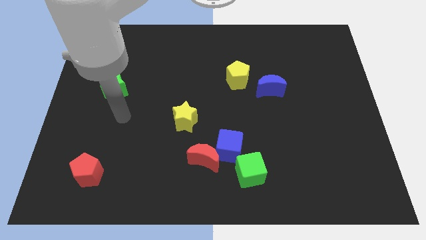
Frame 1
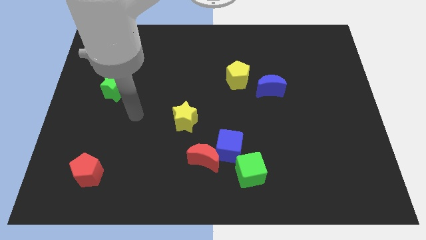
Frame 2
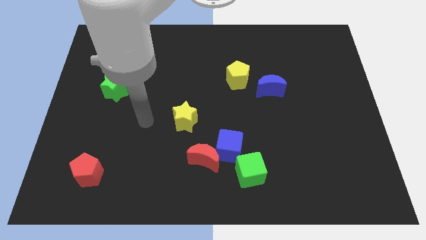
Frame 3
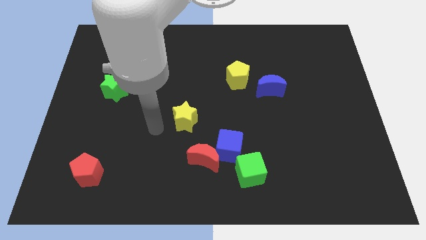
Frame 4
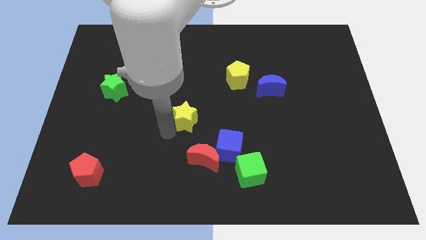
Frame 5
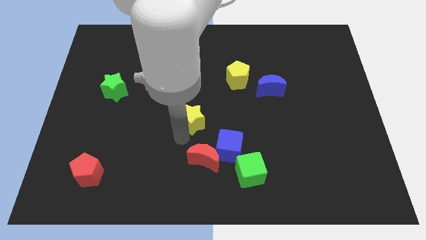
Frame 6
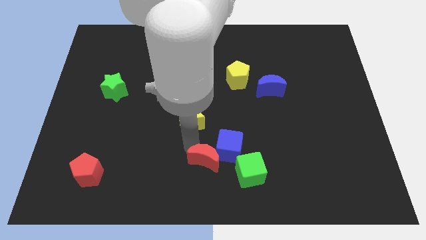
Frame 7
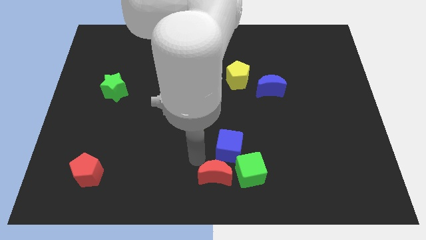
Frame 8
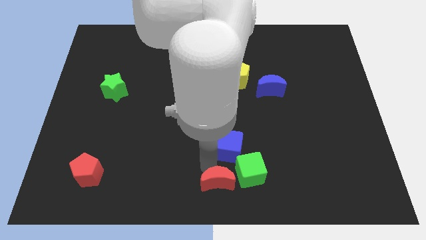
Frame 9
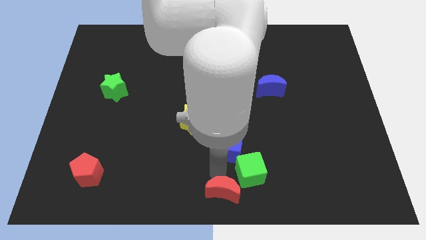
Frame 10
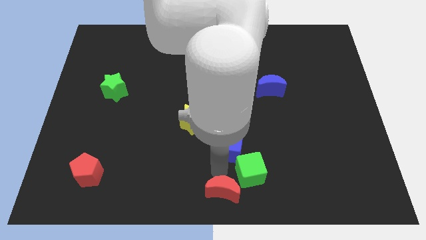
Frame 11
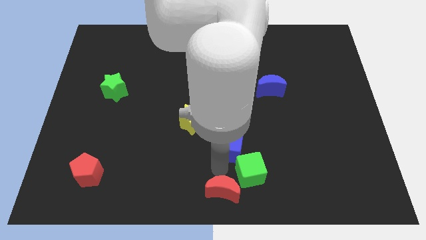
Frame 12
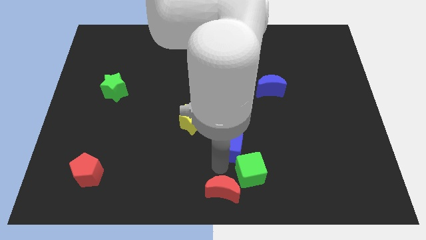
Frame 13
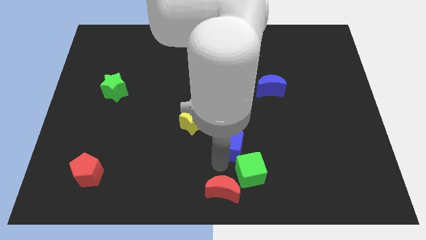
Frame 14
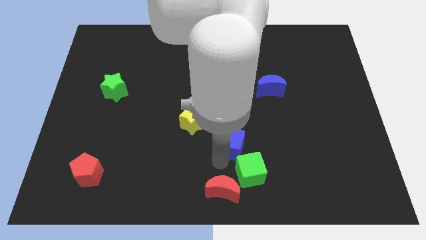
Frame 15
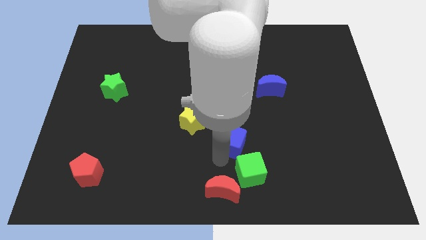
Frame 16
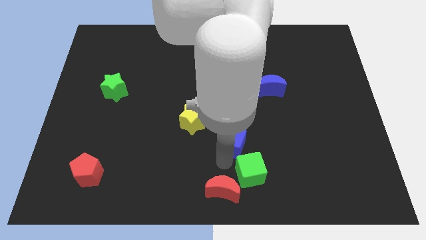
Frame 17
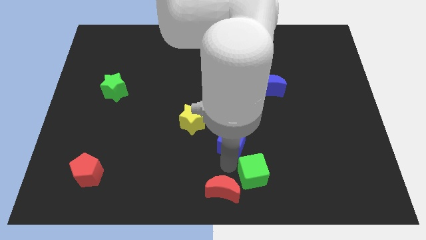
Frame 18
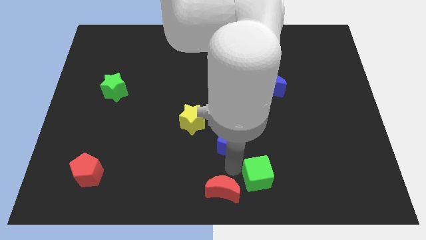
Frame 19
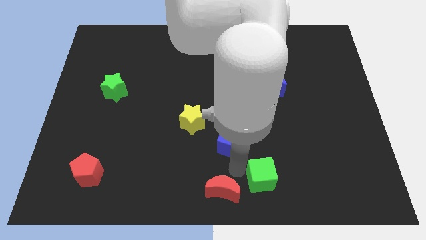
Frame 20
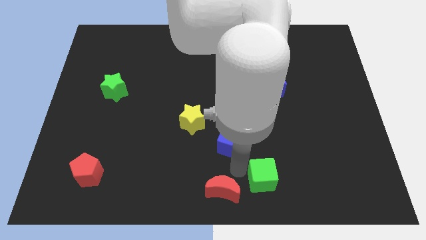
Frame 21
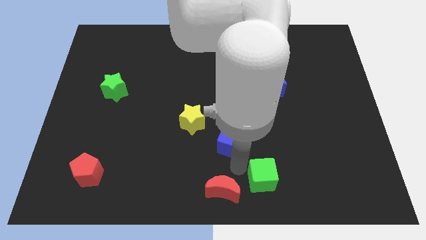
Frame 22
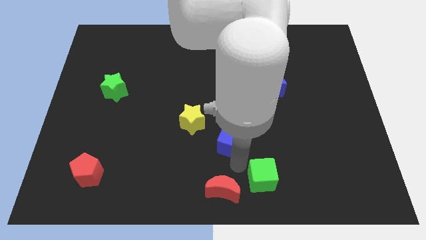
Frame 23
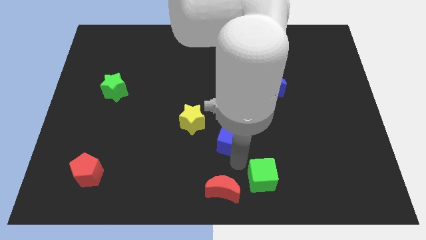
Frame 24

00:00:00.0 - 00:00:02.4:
move the blue cube away from the red moon and green cube

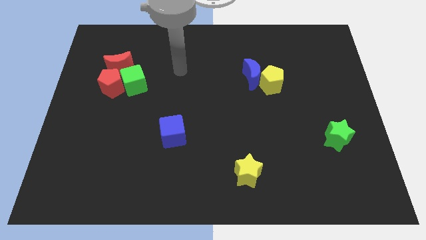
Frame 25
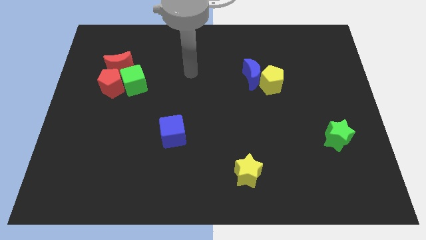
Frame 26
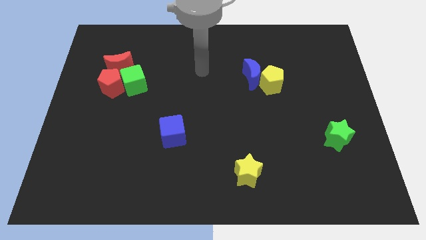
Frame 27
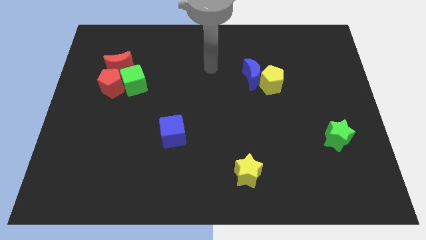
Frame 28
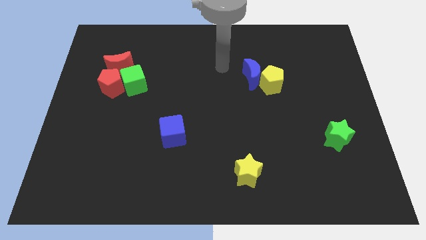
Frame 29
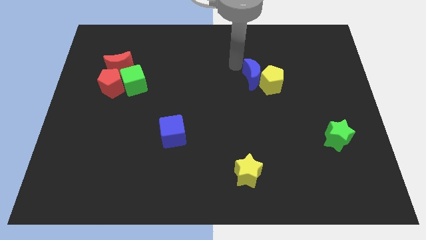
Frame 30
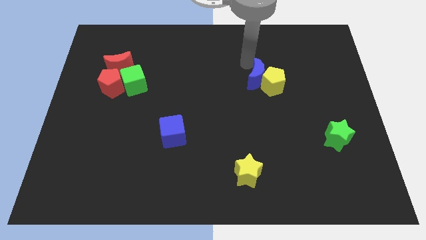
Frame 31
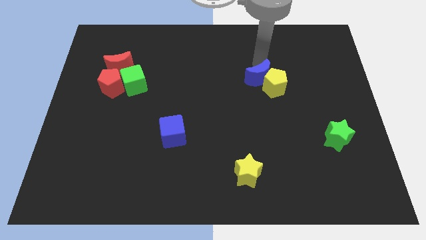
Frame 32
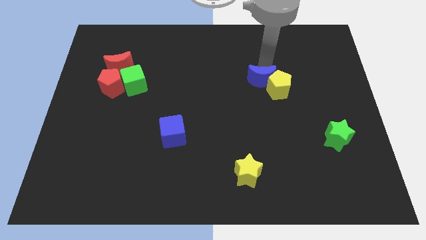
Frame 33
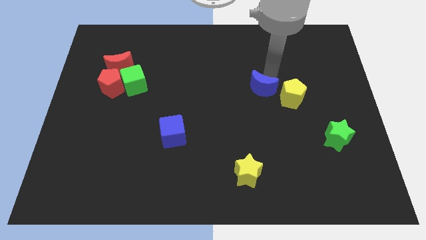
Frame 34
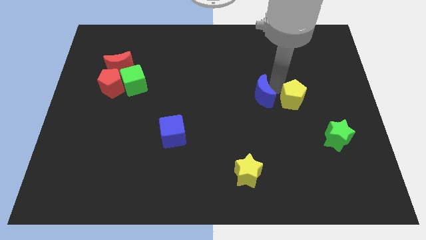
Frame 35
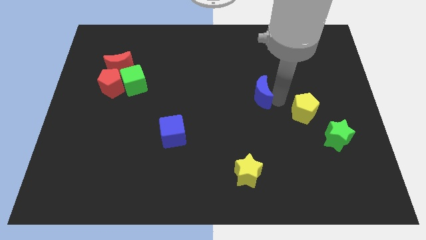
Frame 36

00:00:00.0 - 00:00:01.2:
separate the blue moon from the yellow pentagon

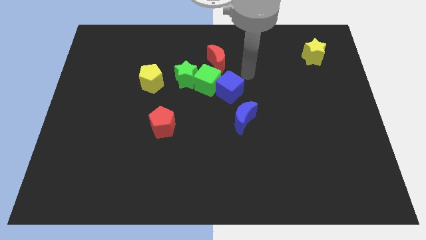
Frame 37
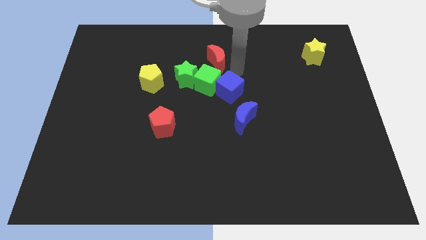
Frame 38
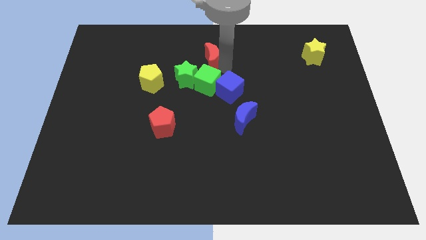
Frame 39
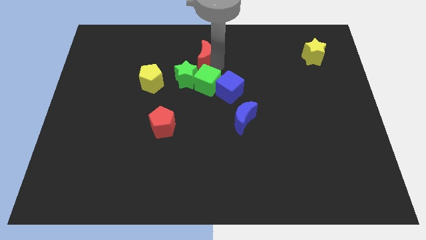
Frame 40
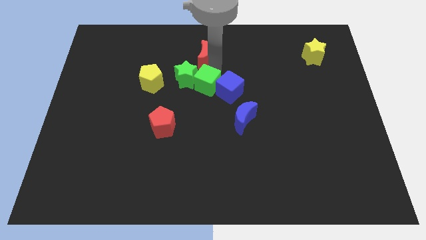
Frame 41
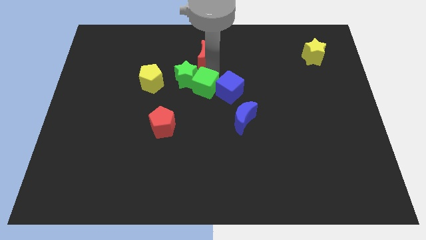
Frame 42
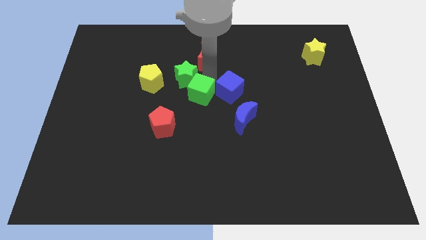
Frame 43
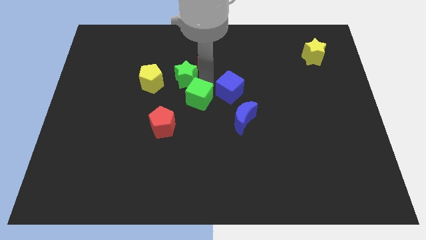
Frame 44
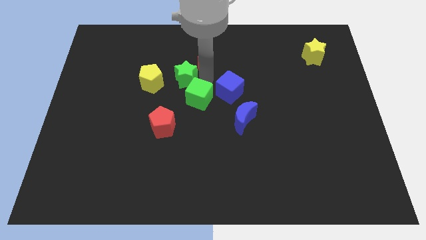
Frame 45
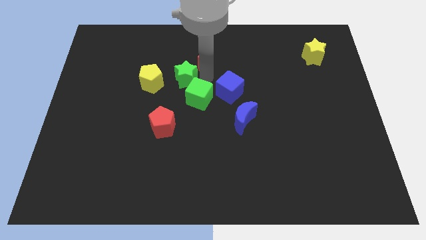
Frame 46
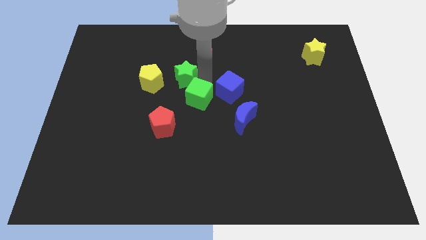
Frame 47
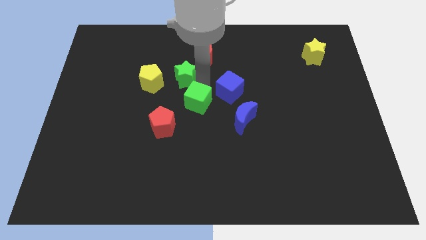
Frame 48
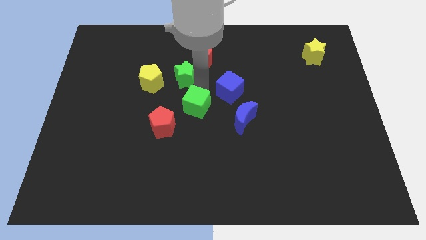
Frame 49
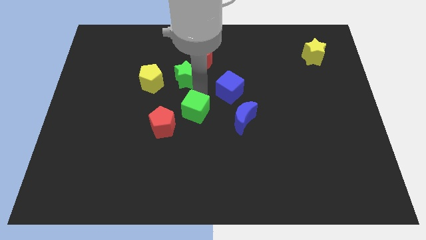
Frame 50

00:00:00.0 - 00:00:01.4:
separate the green cube from the clump

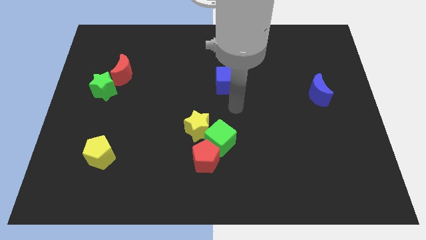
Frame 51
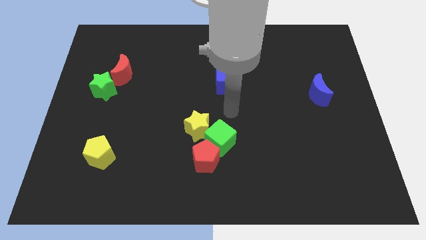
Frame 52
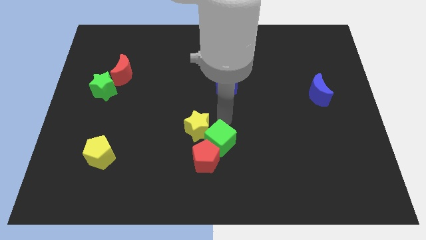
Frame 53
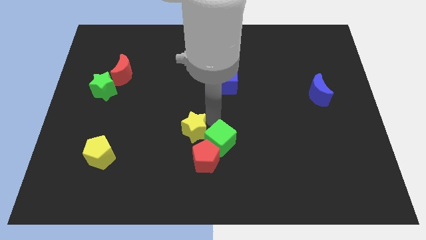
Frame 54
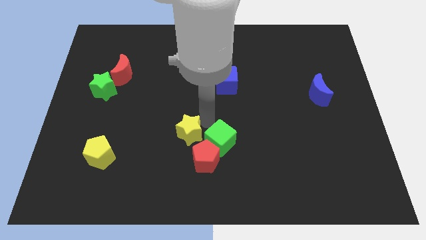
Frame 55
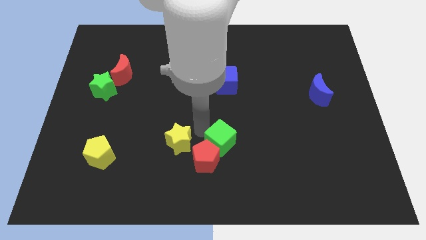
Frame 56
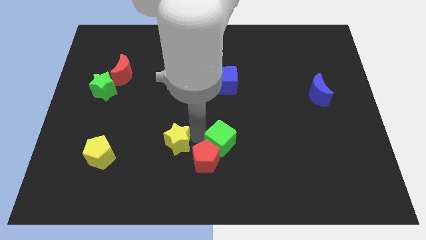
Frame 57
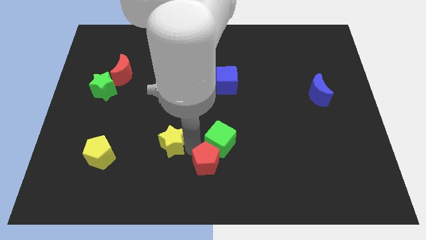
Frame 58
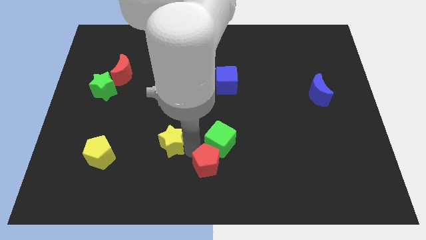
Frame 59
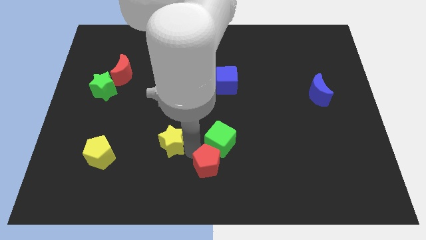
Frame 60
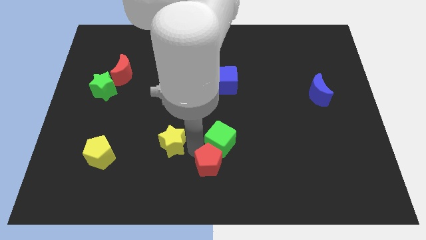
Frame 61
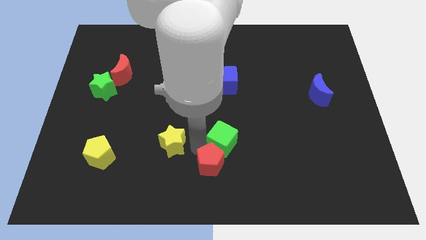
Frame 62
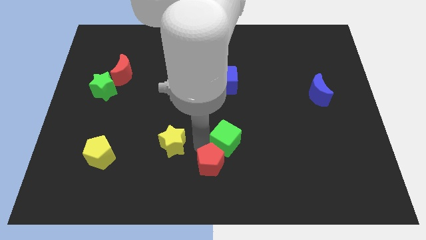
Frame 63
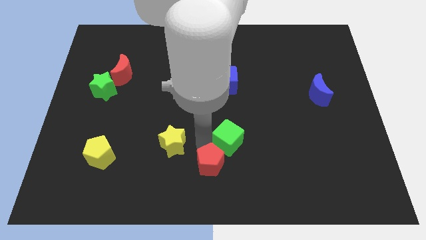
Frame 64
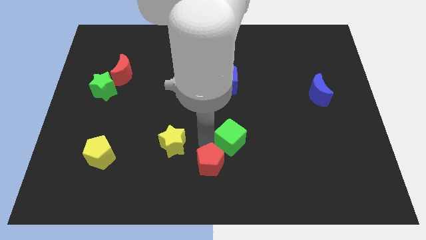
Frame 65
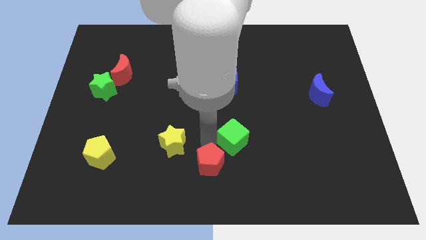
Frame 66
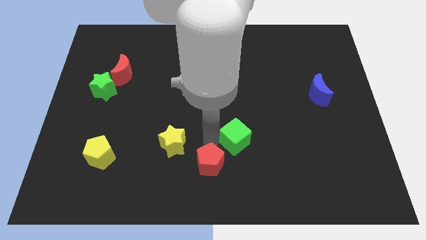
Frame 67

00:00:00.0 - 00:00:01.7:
move the green cube away from the red pentagon and yellow star

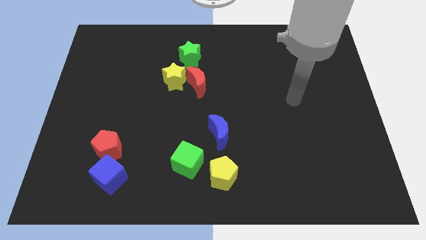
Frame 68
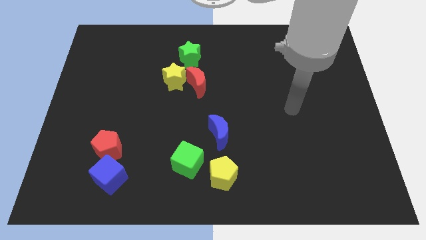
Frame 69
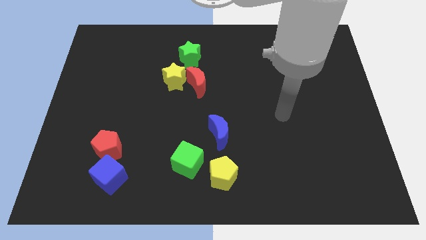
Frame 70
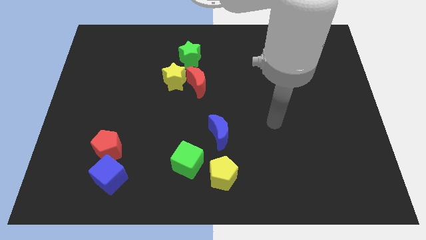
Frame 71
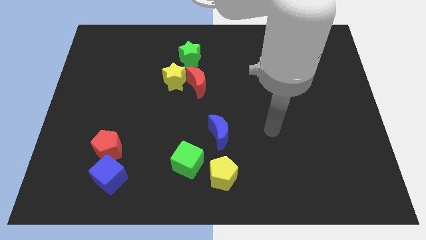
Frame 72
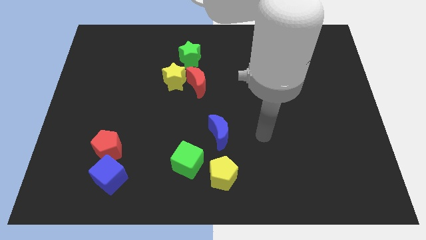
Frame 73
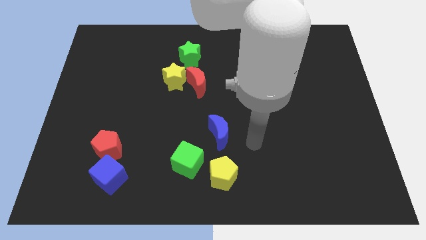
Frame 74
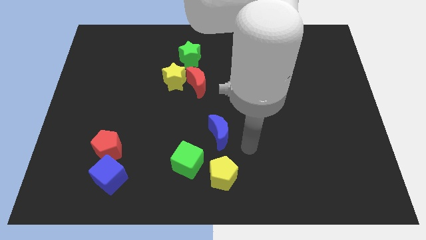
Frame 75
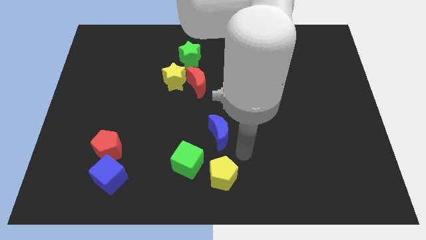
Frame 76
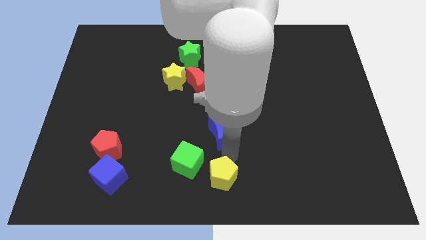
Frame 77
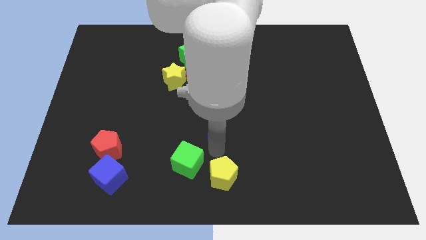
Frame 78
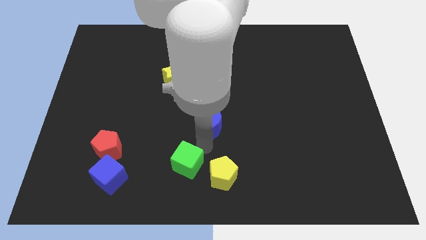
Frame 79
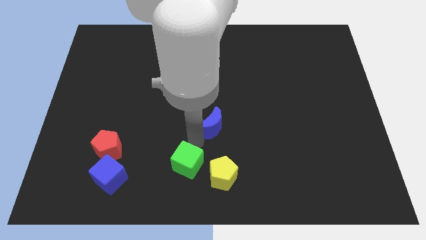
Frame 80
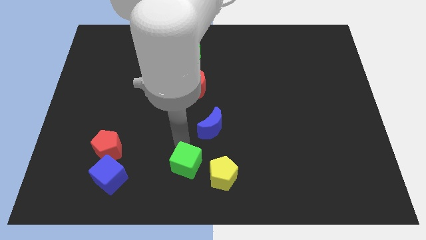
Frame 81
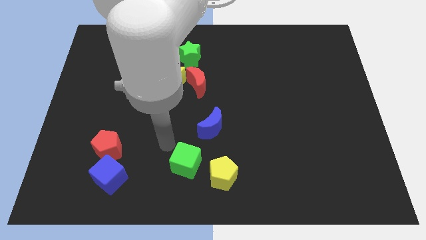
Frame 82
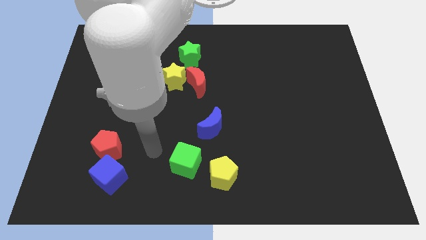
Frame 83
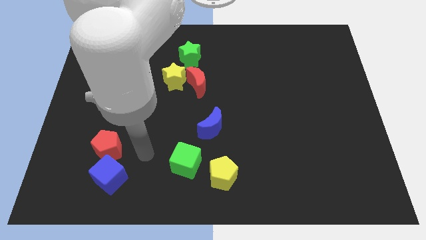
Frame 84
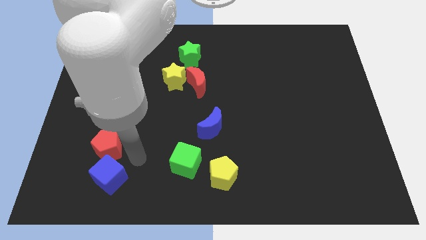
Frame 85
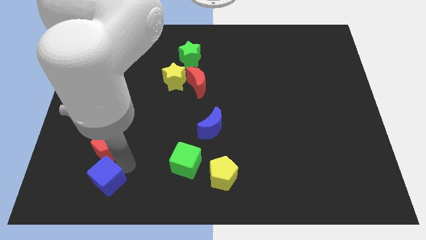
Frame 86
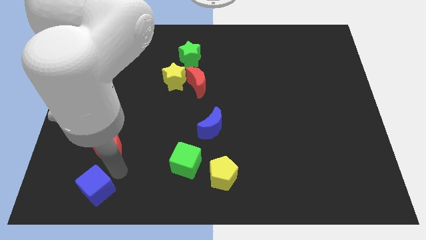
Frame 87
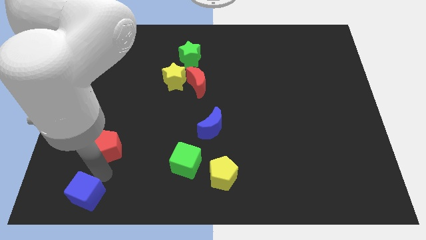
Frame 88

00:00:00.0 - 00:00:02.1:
separate the red pentagon from the blue cube

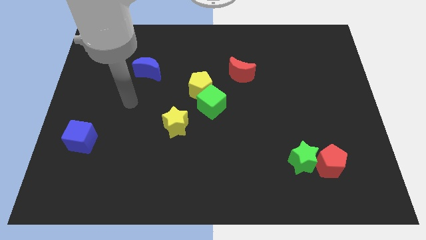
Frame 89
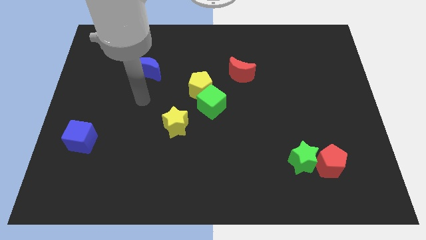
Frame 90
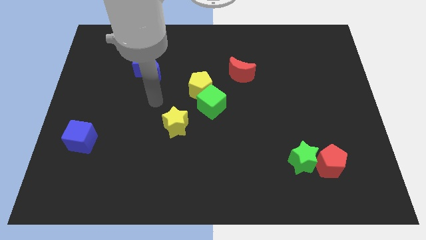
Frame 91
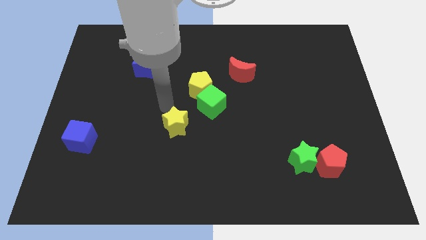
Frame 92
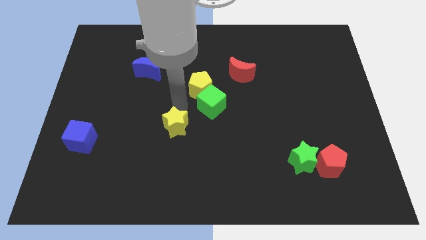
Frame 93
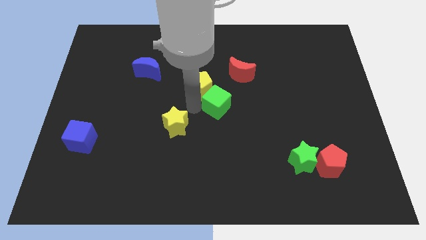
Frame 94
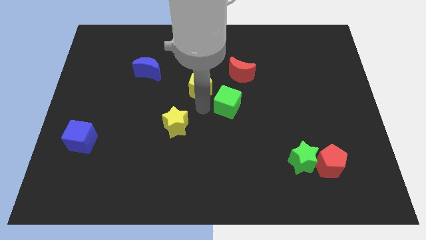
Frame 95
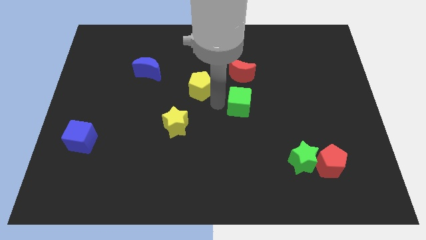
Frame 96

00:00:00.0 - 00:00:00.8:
pull the yellow pentagon apart from the green cube
